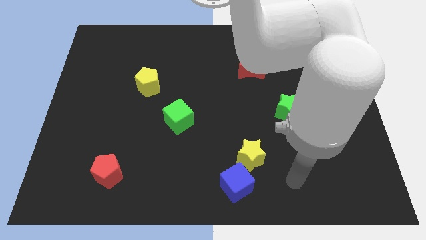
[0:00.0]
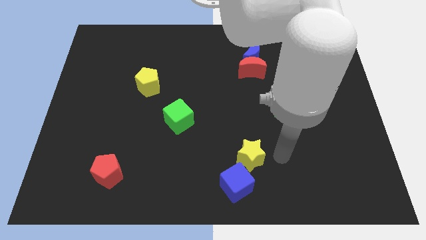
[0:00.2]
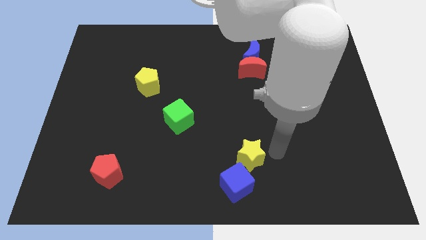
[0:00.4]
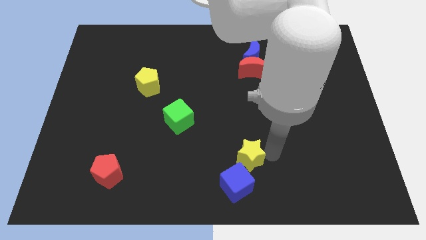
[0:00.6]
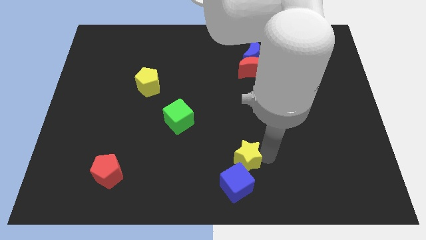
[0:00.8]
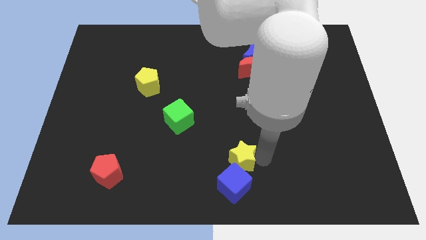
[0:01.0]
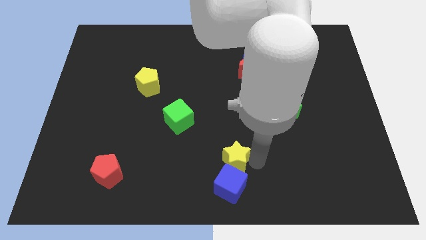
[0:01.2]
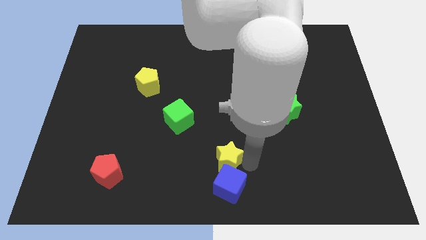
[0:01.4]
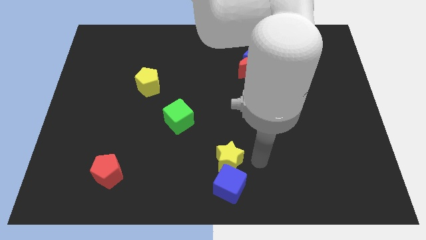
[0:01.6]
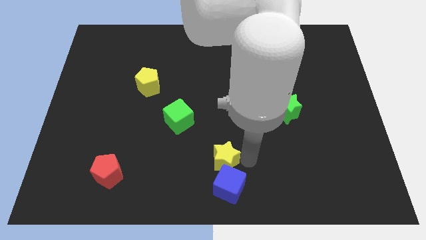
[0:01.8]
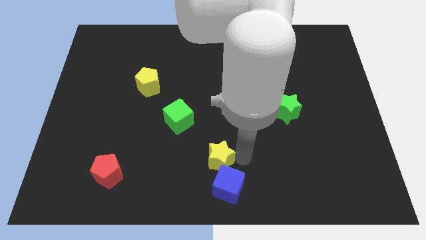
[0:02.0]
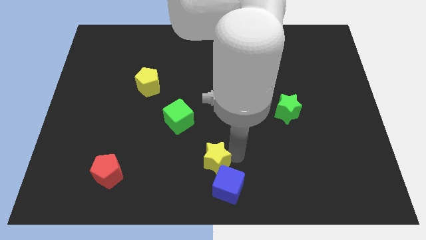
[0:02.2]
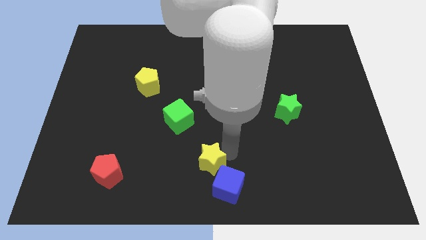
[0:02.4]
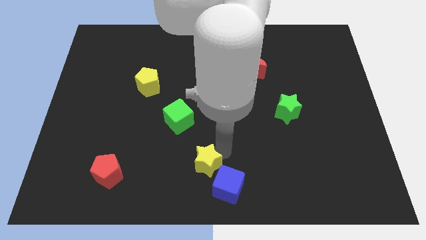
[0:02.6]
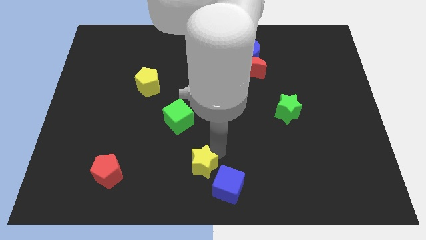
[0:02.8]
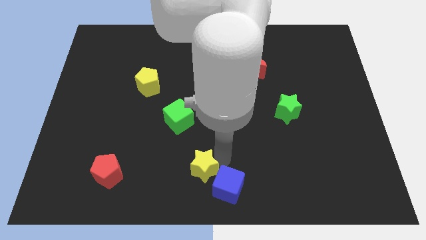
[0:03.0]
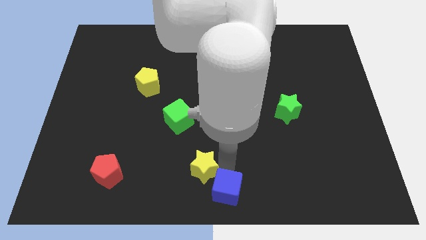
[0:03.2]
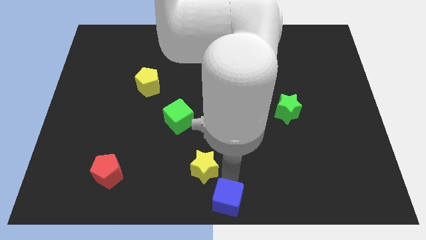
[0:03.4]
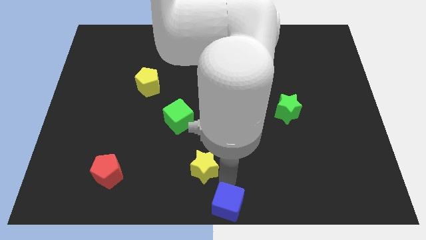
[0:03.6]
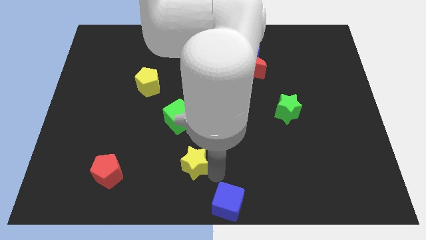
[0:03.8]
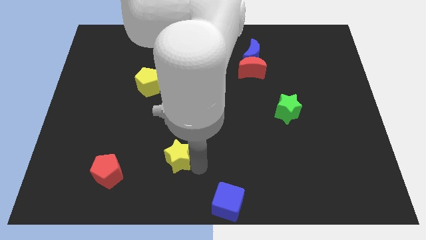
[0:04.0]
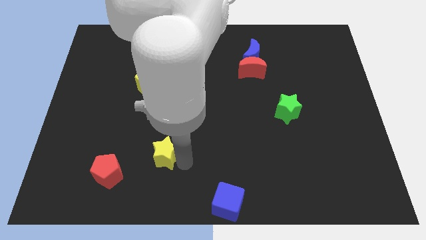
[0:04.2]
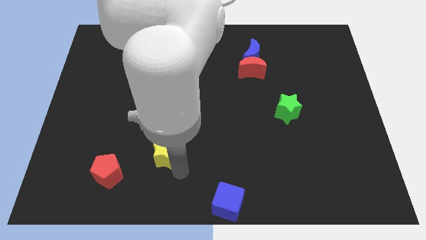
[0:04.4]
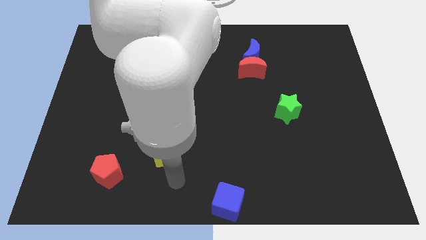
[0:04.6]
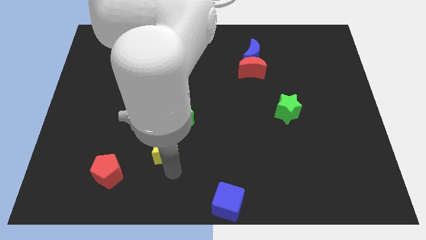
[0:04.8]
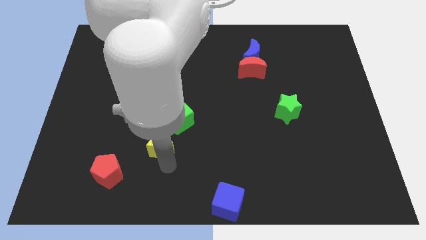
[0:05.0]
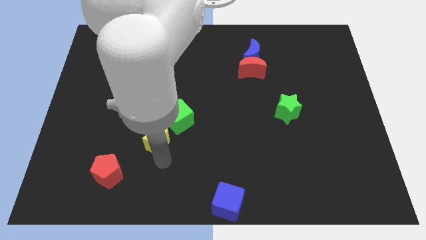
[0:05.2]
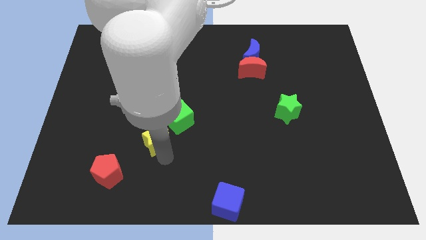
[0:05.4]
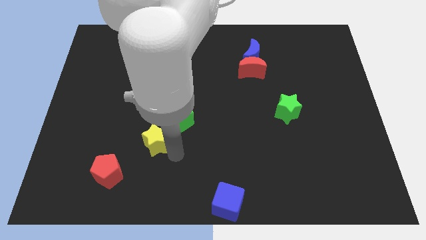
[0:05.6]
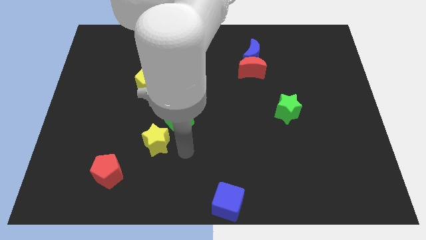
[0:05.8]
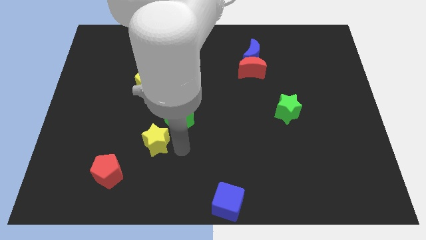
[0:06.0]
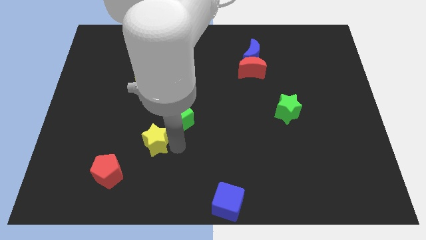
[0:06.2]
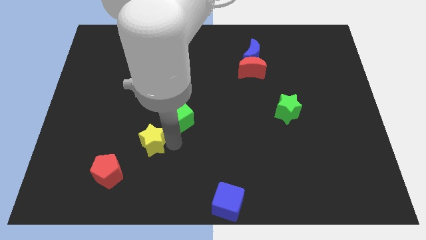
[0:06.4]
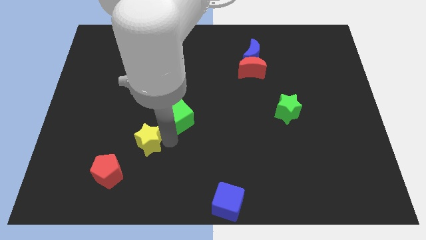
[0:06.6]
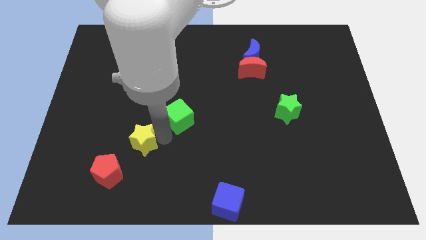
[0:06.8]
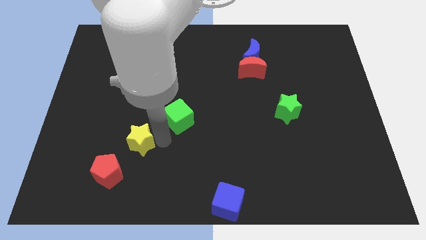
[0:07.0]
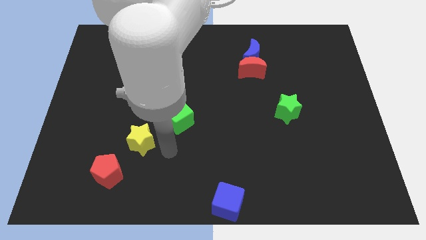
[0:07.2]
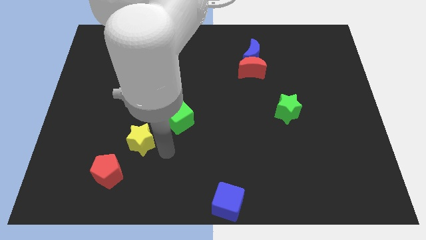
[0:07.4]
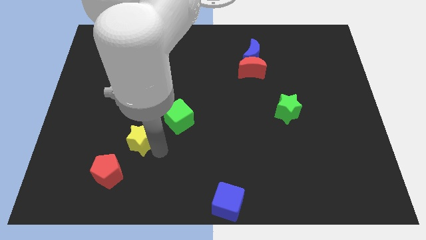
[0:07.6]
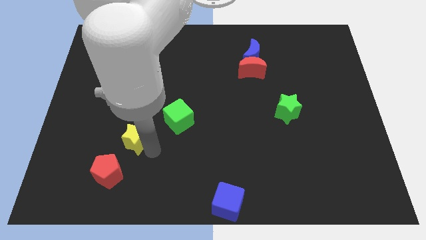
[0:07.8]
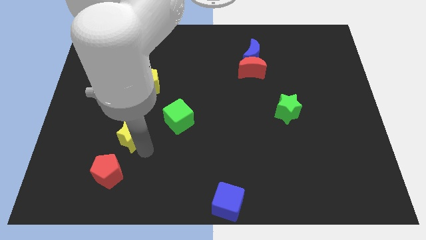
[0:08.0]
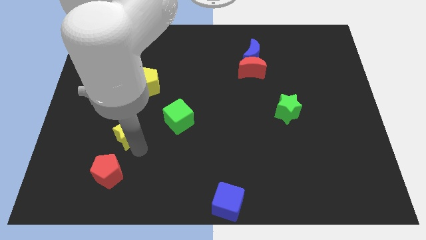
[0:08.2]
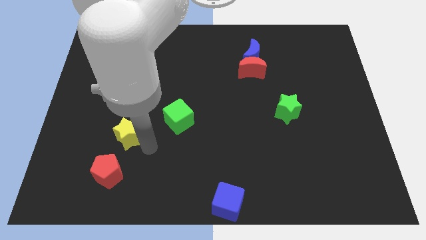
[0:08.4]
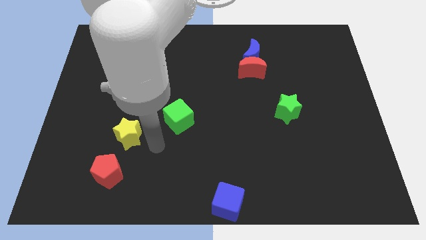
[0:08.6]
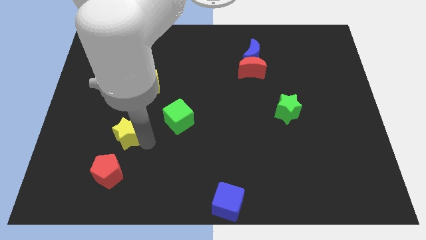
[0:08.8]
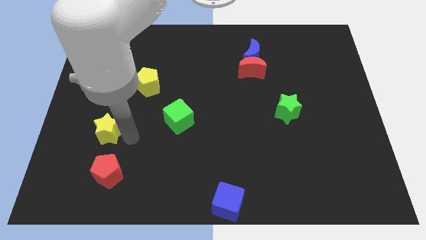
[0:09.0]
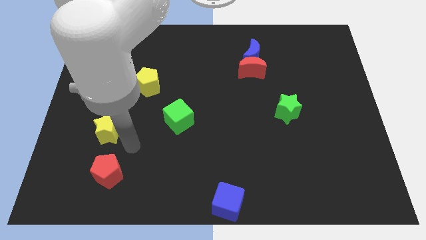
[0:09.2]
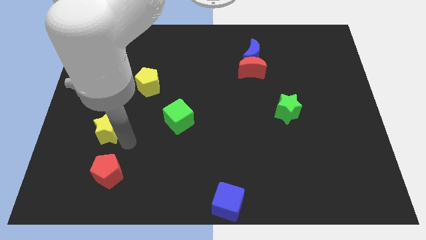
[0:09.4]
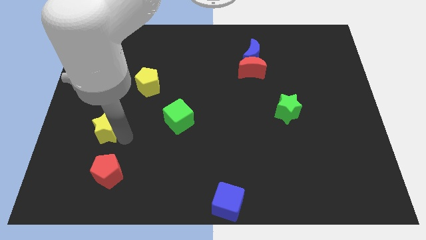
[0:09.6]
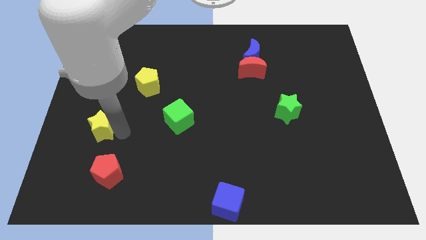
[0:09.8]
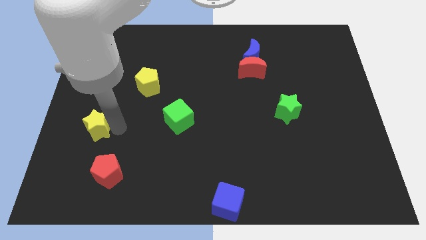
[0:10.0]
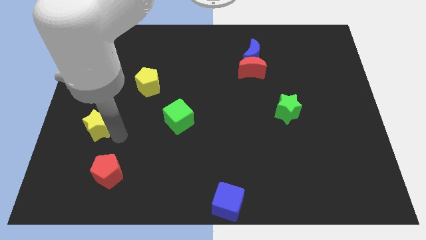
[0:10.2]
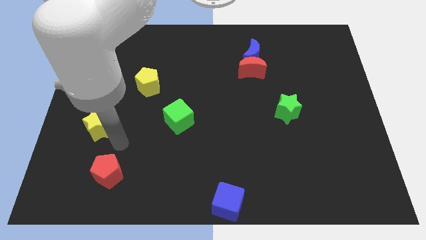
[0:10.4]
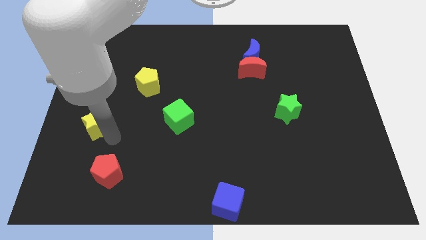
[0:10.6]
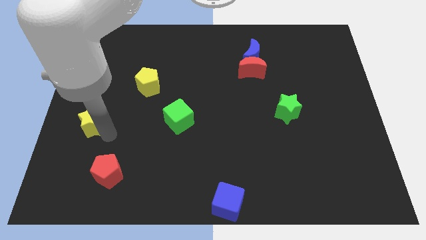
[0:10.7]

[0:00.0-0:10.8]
slide the yellow star to the left side of the board

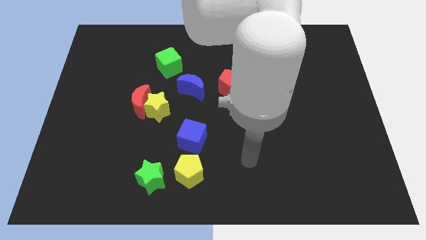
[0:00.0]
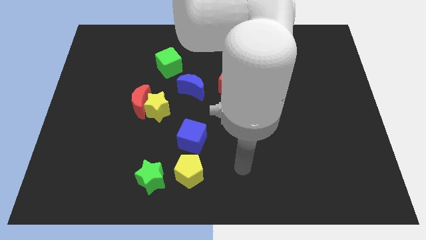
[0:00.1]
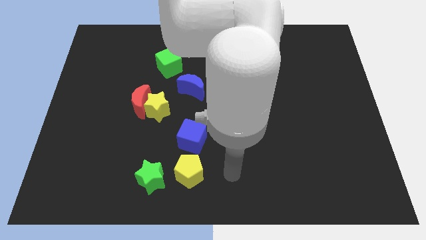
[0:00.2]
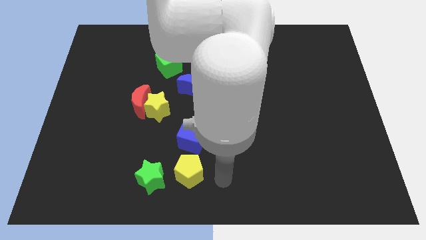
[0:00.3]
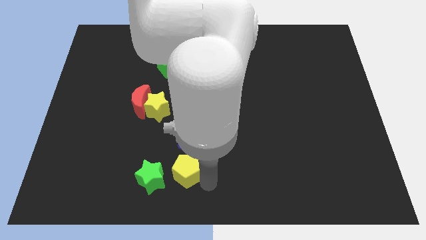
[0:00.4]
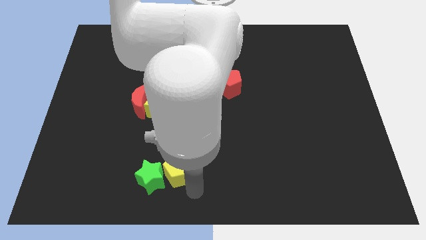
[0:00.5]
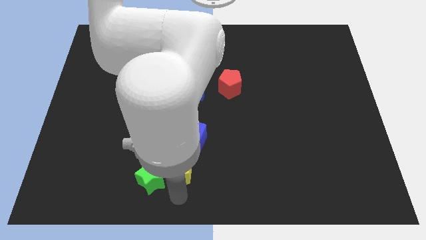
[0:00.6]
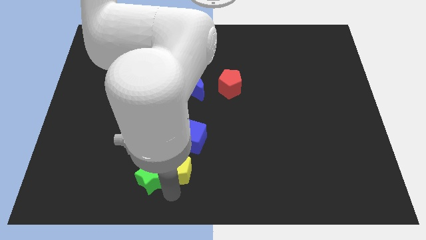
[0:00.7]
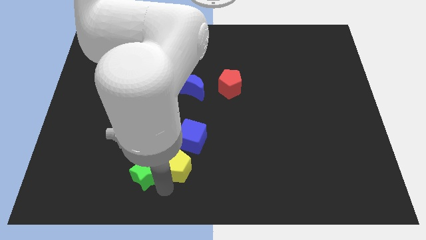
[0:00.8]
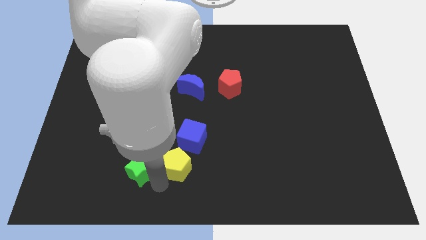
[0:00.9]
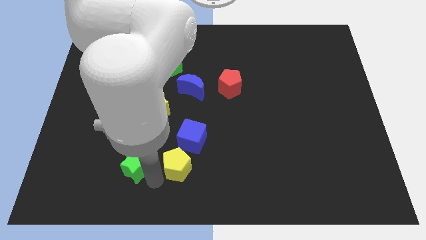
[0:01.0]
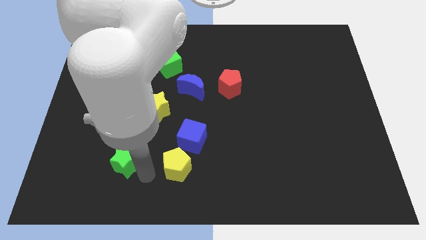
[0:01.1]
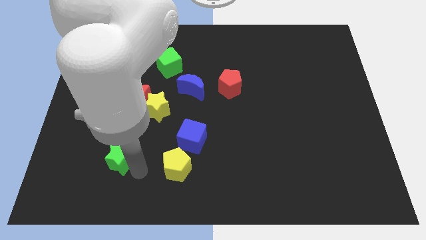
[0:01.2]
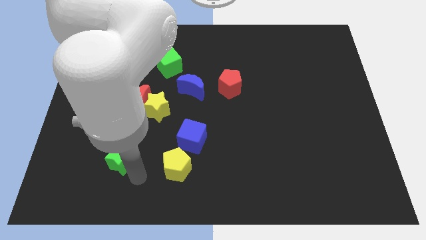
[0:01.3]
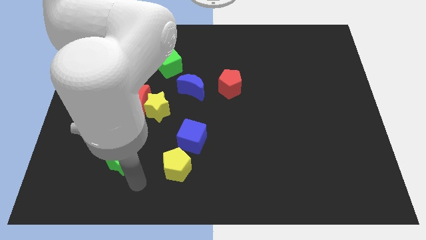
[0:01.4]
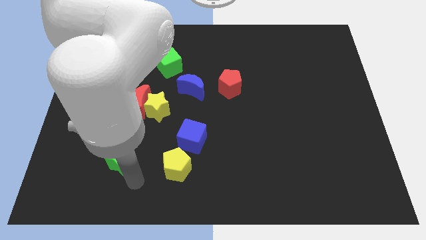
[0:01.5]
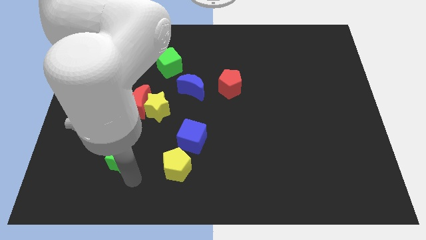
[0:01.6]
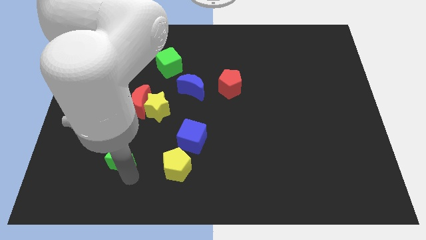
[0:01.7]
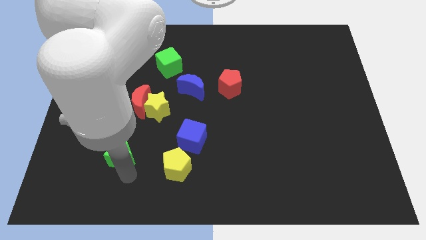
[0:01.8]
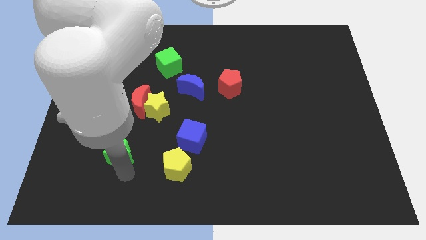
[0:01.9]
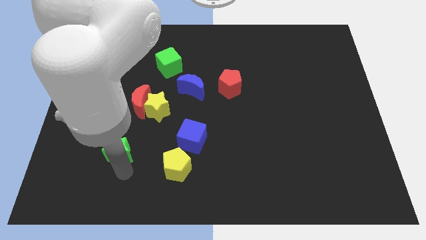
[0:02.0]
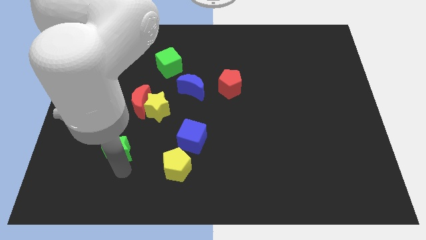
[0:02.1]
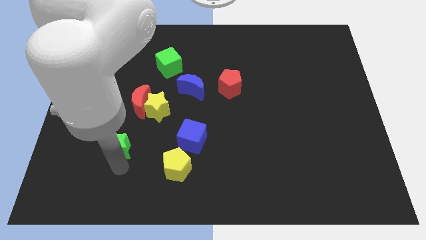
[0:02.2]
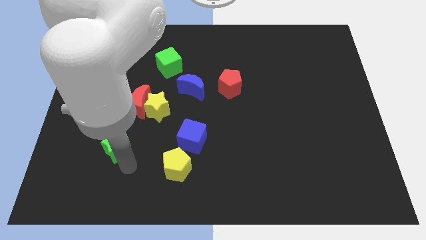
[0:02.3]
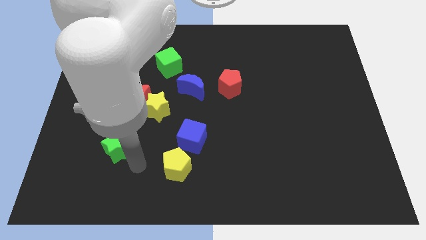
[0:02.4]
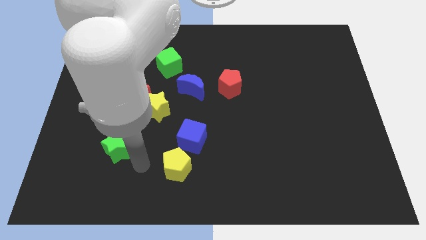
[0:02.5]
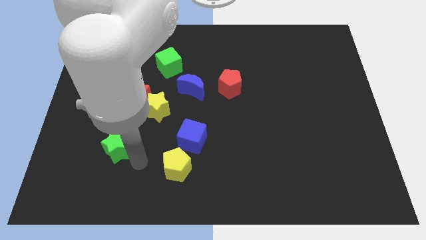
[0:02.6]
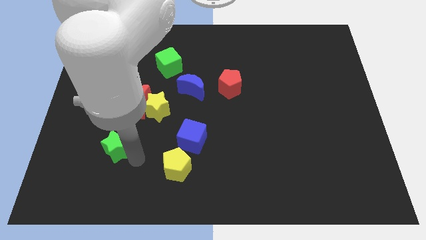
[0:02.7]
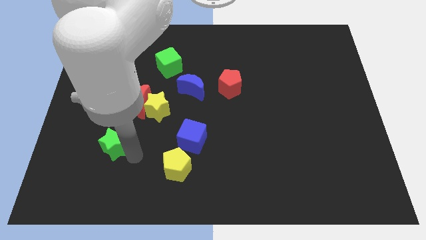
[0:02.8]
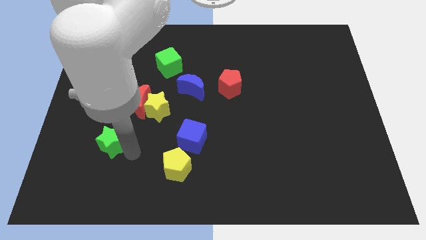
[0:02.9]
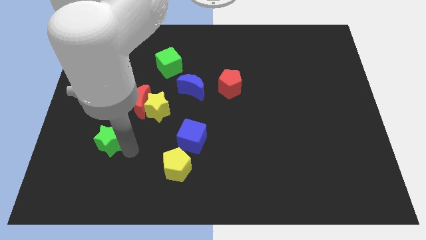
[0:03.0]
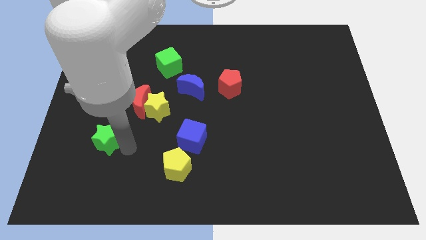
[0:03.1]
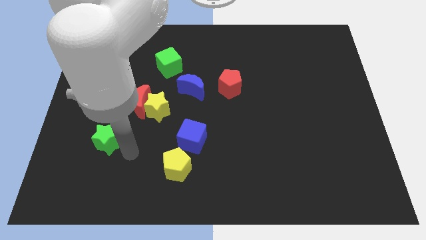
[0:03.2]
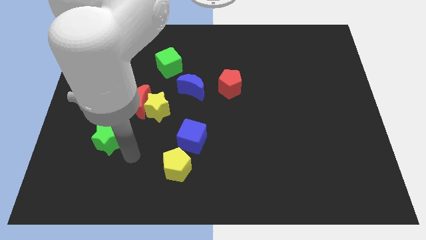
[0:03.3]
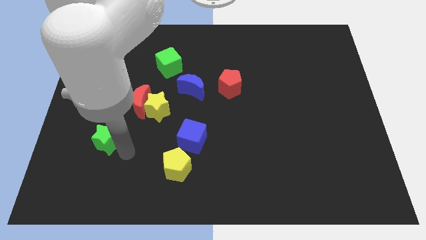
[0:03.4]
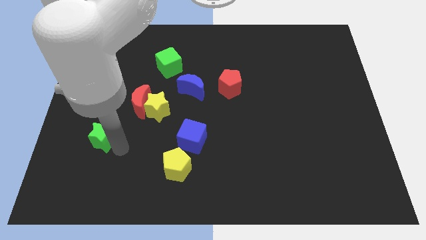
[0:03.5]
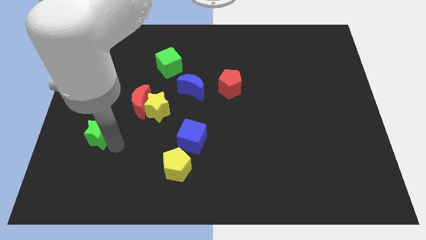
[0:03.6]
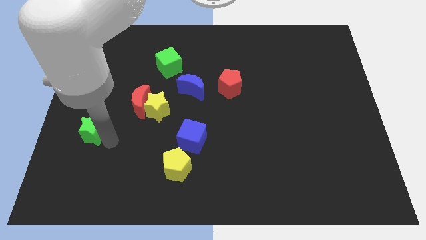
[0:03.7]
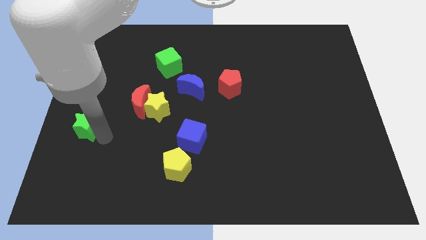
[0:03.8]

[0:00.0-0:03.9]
slide the green star to the left side of the board
